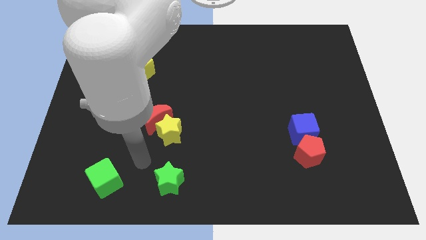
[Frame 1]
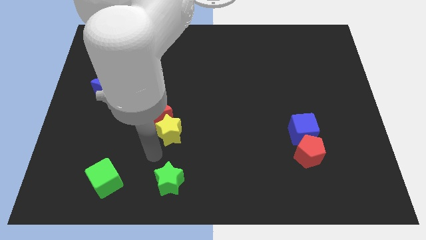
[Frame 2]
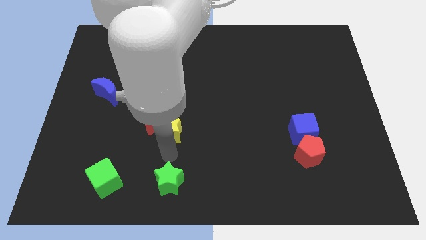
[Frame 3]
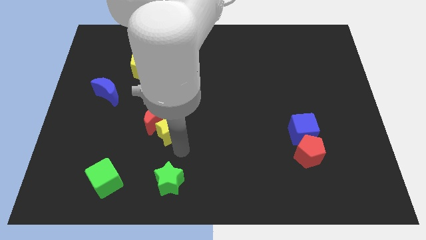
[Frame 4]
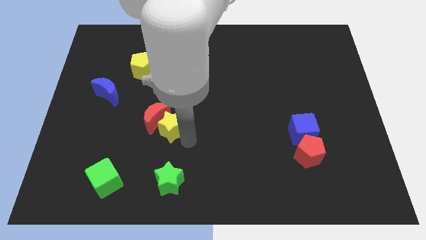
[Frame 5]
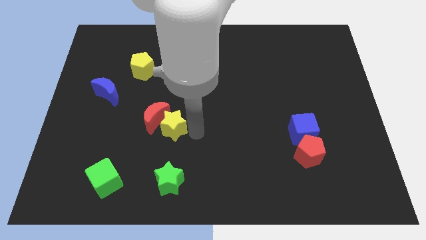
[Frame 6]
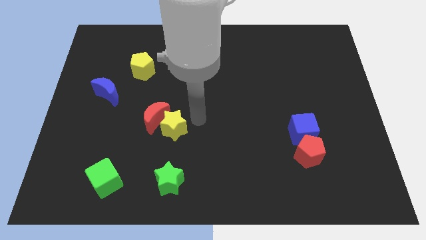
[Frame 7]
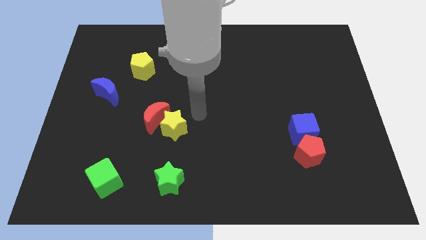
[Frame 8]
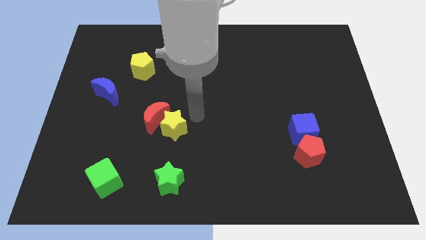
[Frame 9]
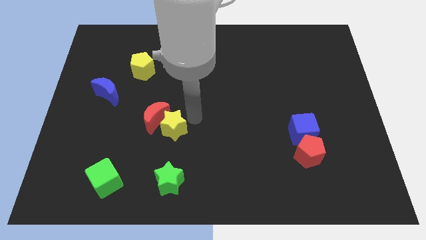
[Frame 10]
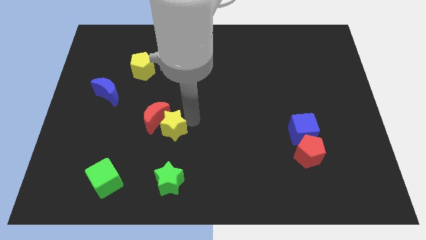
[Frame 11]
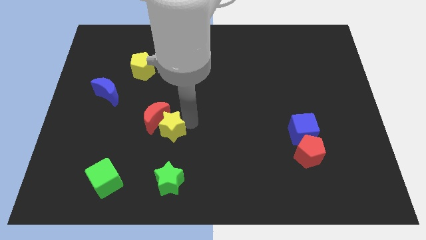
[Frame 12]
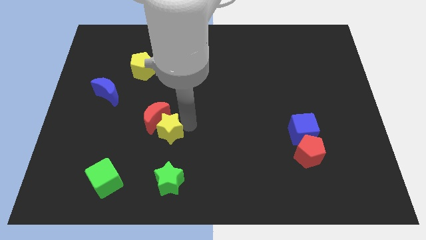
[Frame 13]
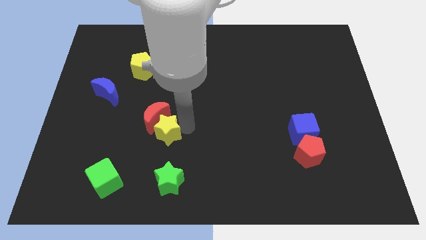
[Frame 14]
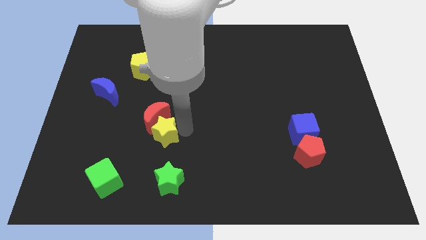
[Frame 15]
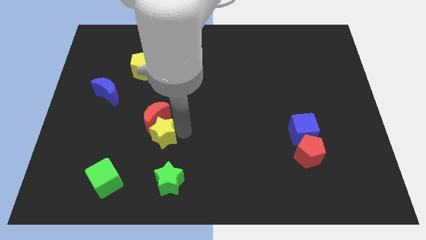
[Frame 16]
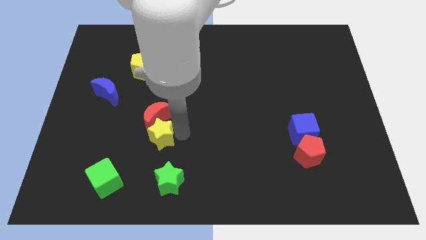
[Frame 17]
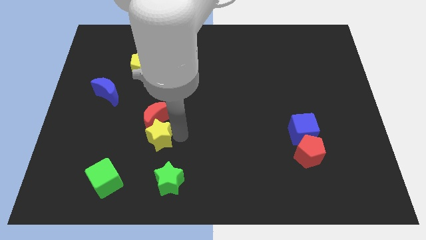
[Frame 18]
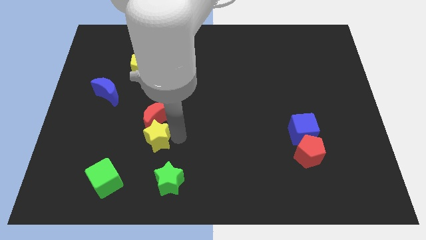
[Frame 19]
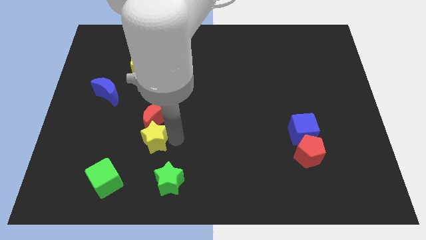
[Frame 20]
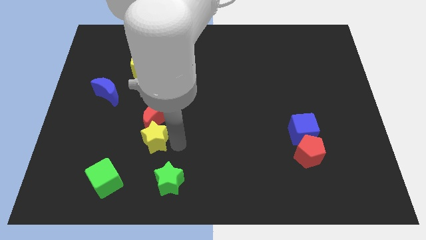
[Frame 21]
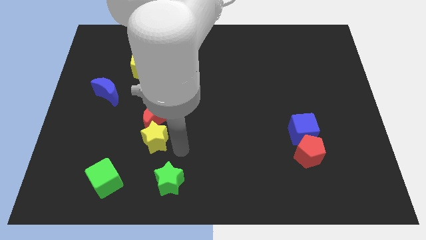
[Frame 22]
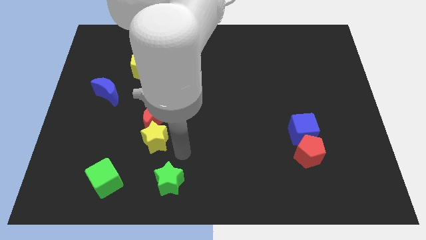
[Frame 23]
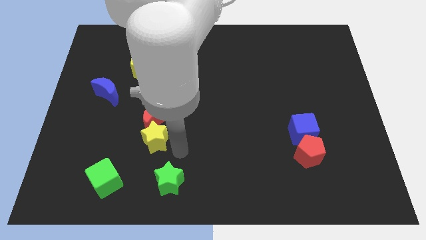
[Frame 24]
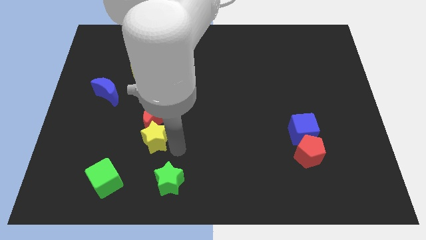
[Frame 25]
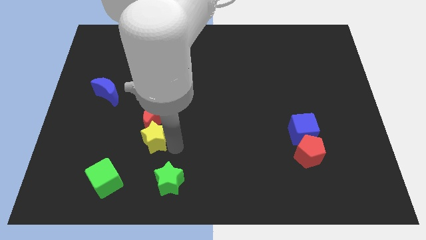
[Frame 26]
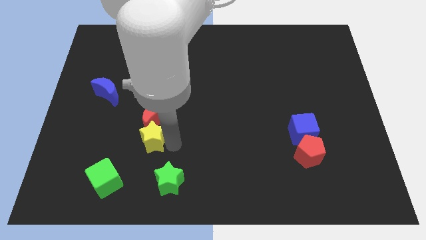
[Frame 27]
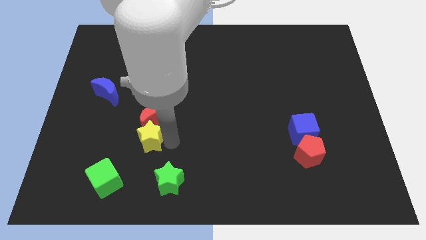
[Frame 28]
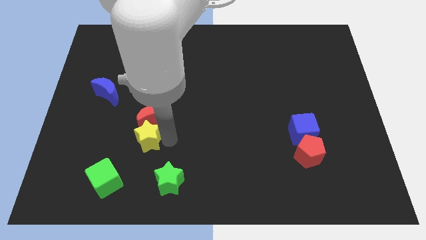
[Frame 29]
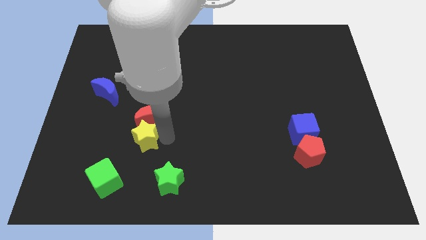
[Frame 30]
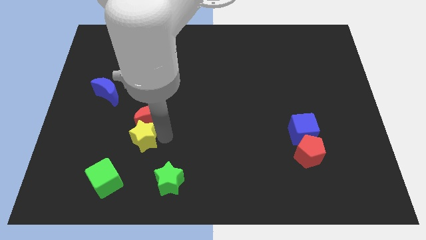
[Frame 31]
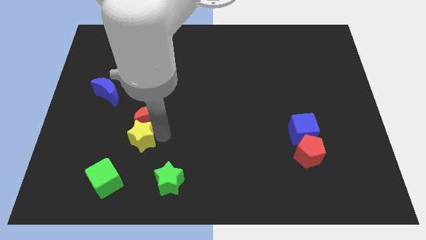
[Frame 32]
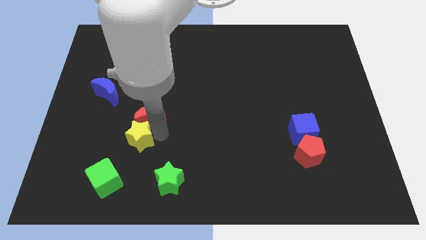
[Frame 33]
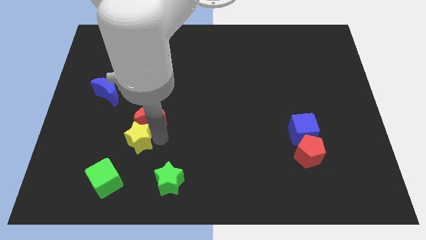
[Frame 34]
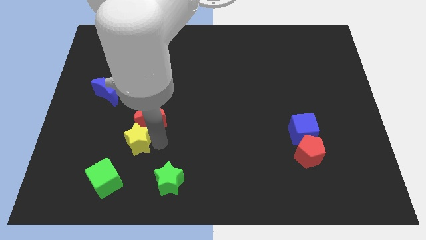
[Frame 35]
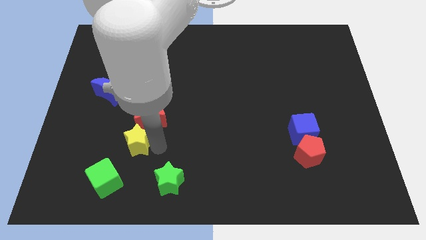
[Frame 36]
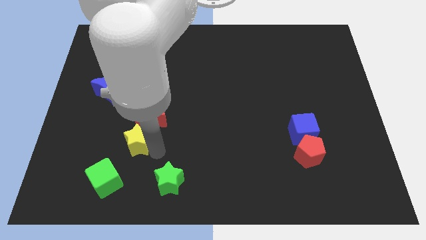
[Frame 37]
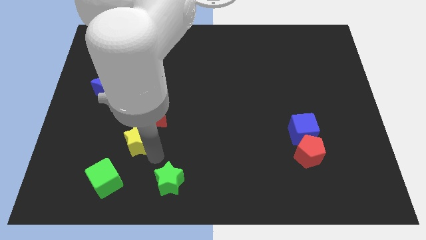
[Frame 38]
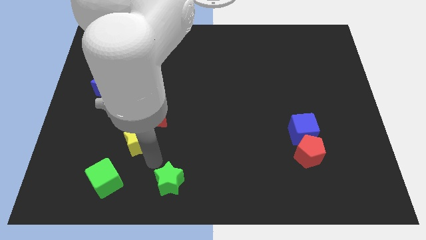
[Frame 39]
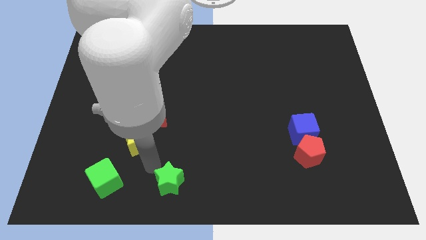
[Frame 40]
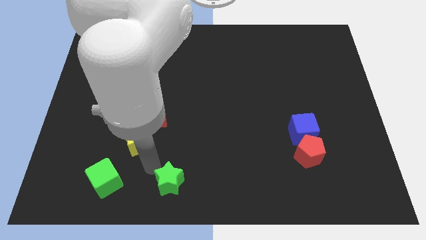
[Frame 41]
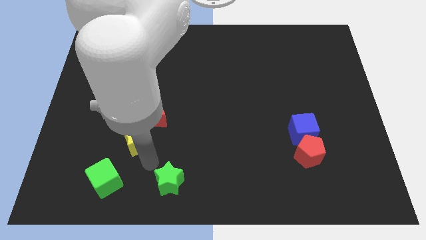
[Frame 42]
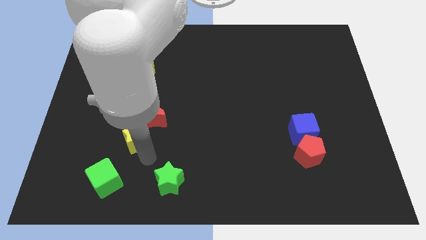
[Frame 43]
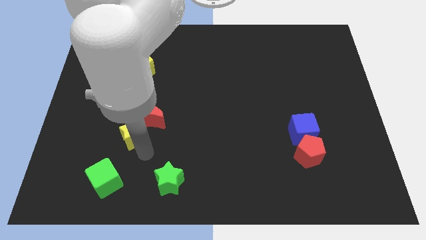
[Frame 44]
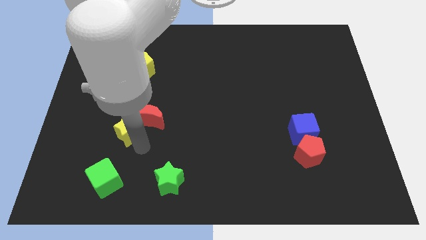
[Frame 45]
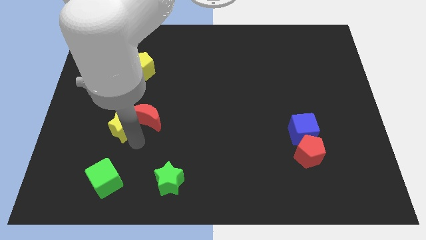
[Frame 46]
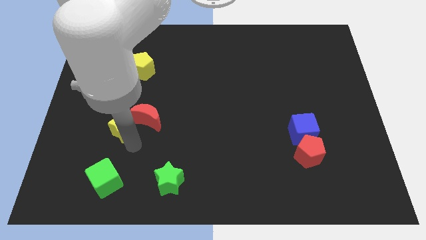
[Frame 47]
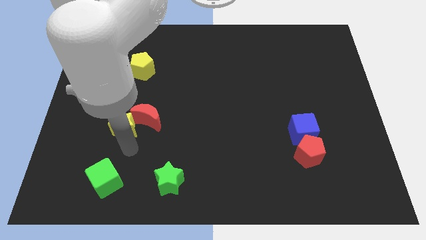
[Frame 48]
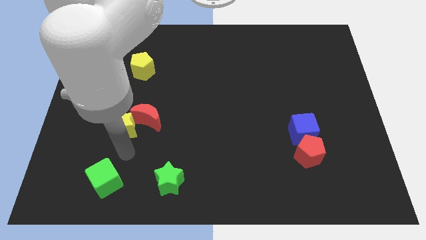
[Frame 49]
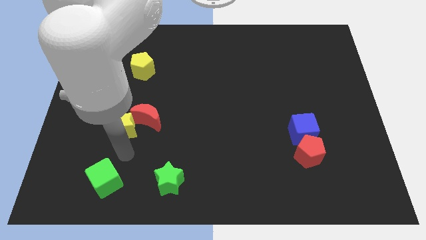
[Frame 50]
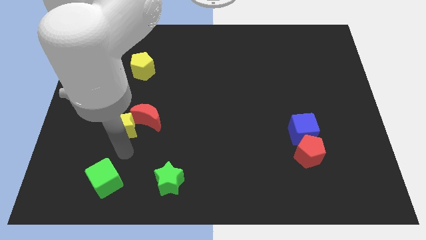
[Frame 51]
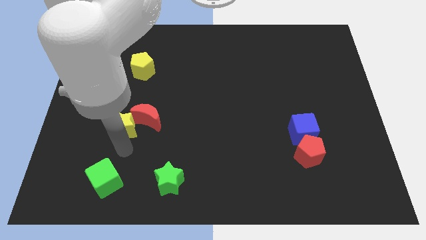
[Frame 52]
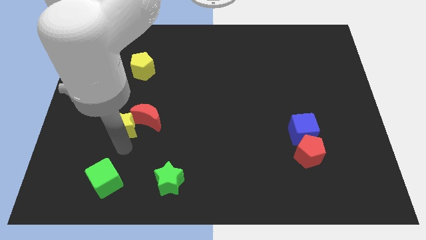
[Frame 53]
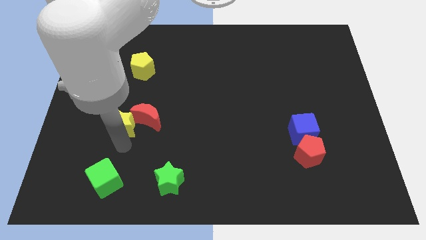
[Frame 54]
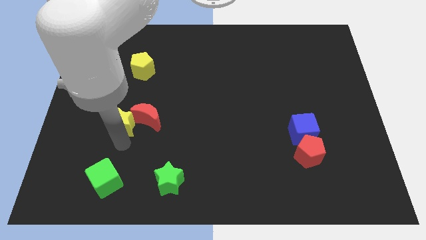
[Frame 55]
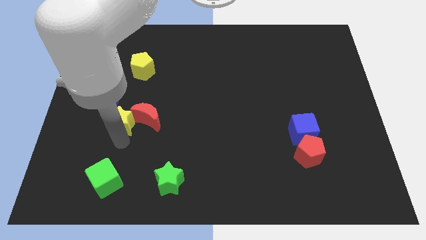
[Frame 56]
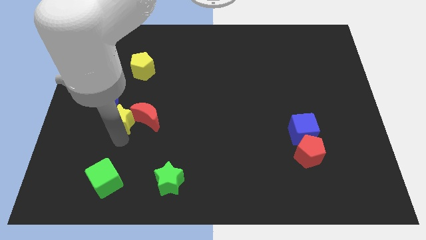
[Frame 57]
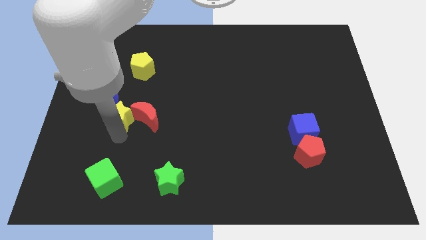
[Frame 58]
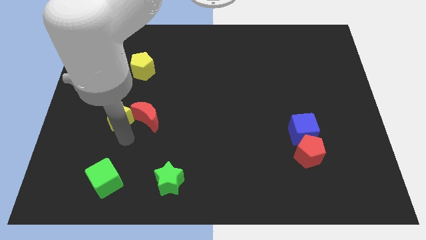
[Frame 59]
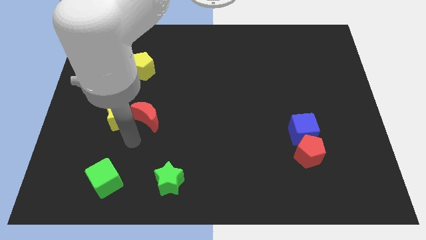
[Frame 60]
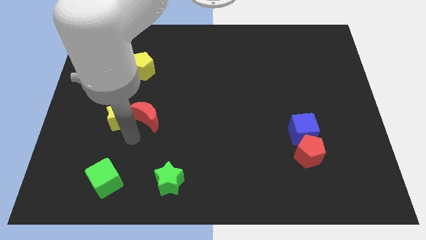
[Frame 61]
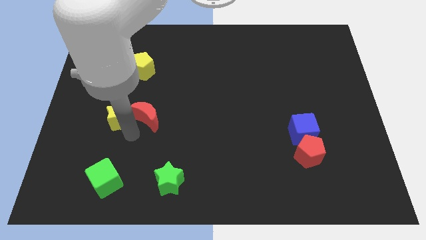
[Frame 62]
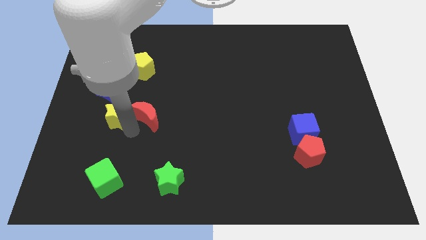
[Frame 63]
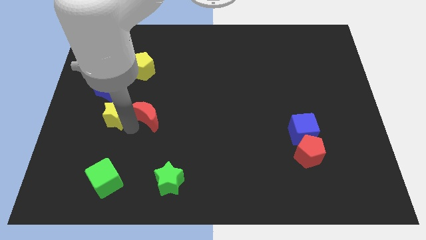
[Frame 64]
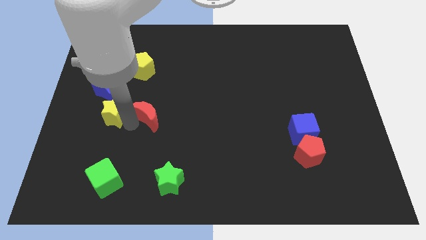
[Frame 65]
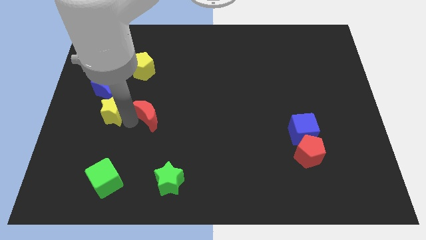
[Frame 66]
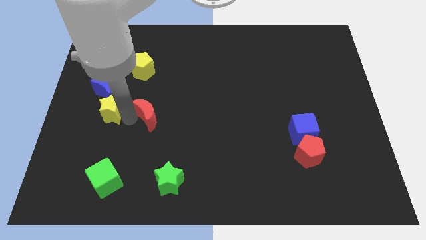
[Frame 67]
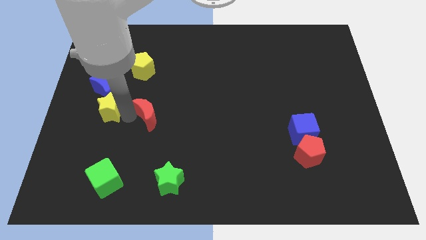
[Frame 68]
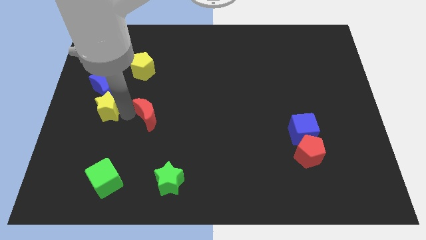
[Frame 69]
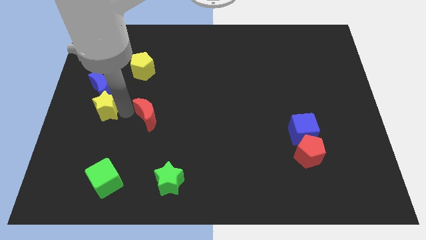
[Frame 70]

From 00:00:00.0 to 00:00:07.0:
slide the yellow star close to the blue moon
